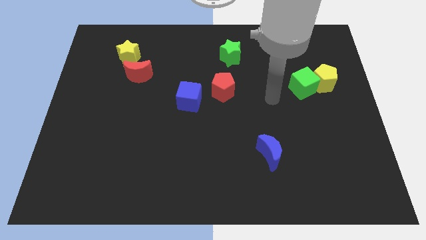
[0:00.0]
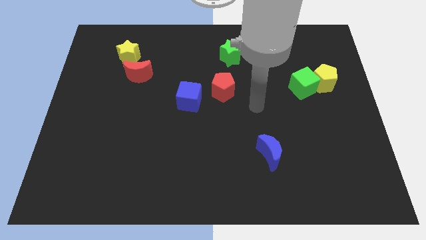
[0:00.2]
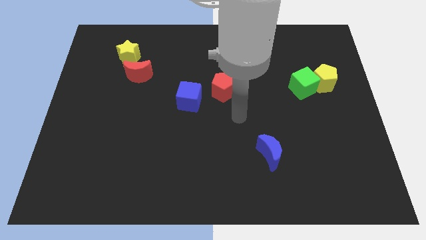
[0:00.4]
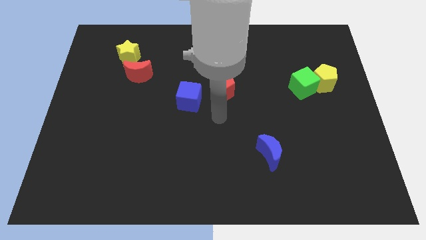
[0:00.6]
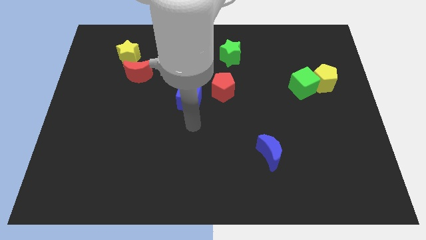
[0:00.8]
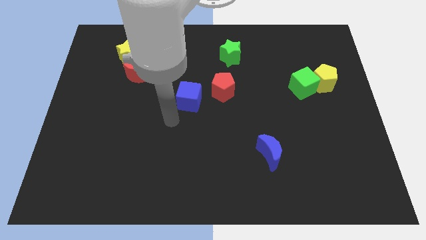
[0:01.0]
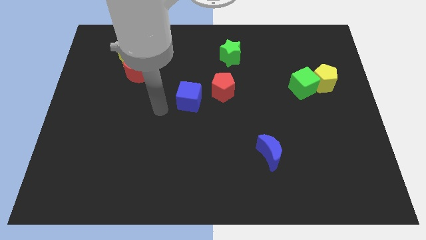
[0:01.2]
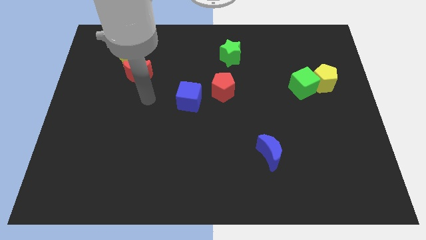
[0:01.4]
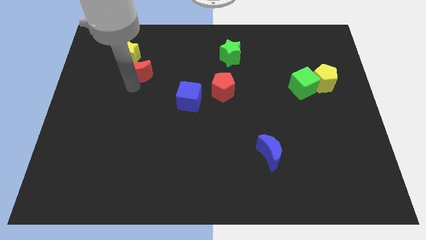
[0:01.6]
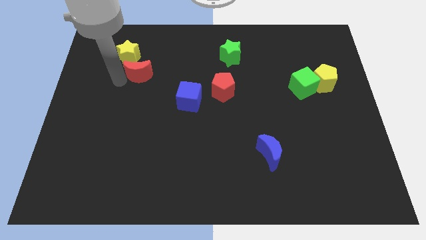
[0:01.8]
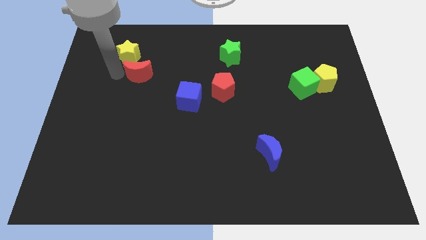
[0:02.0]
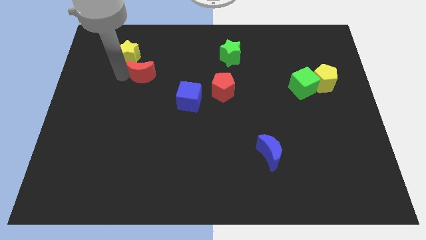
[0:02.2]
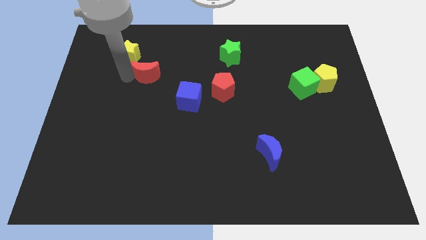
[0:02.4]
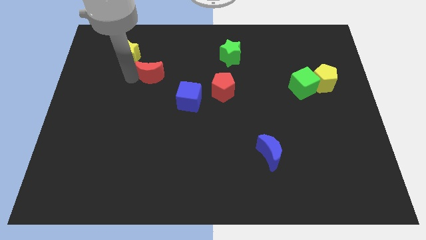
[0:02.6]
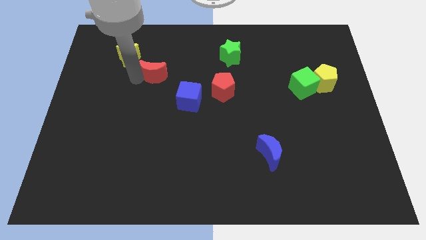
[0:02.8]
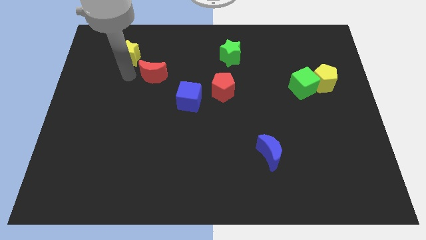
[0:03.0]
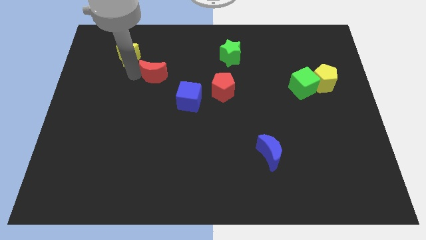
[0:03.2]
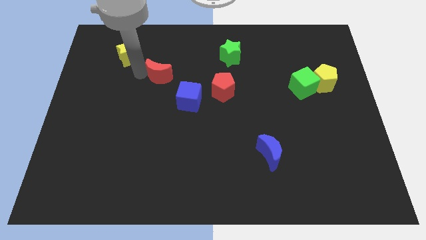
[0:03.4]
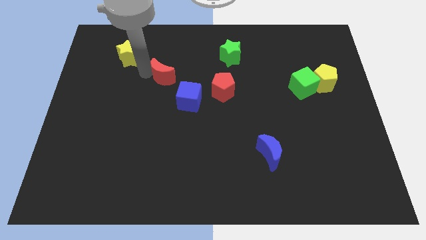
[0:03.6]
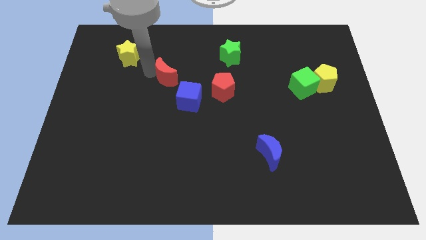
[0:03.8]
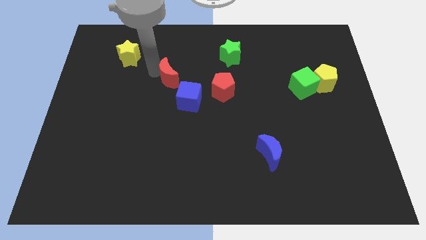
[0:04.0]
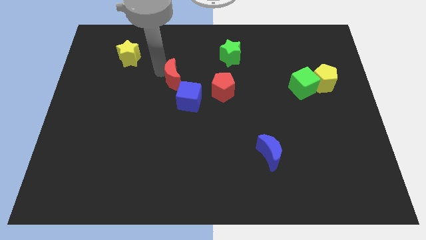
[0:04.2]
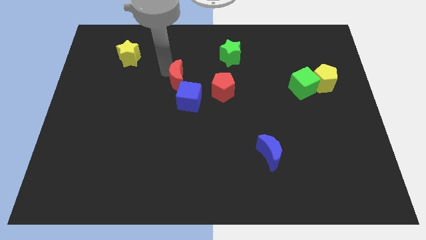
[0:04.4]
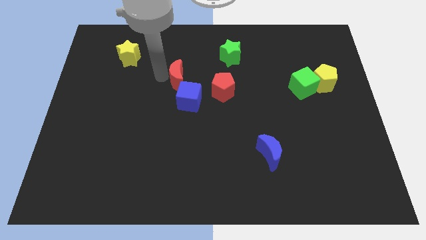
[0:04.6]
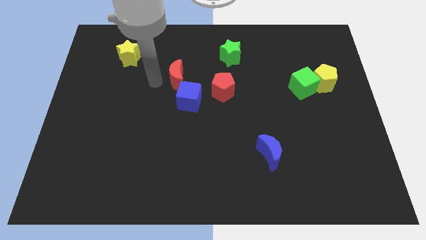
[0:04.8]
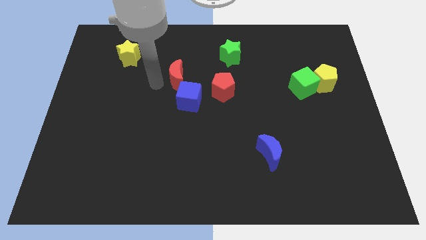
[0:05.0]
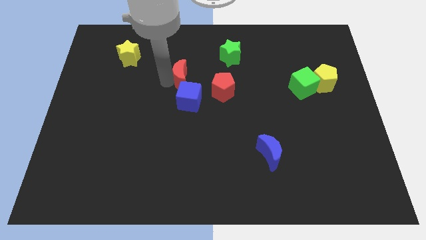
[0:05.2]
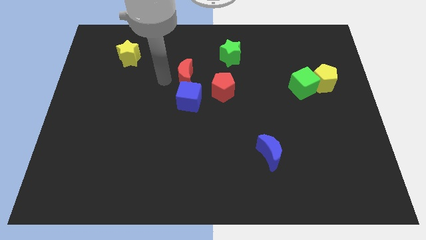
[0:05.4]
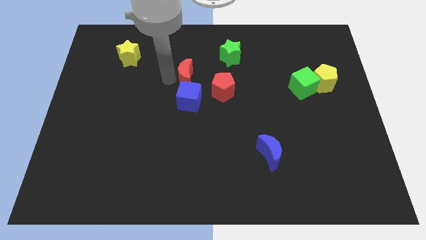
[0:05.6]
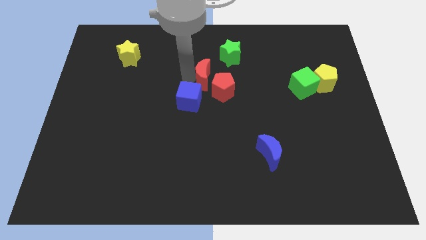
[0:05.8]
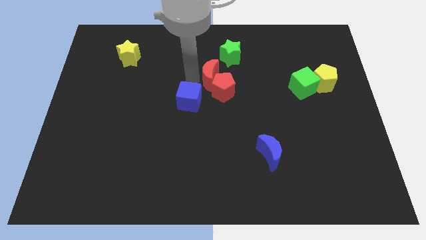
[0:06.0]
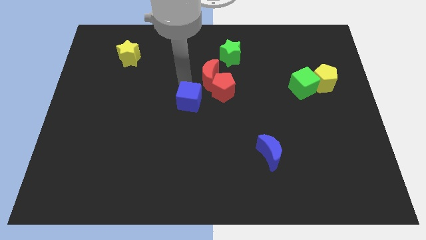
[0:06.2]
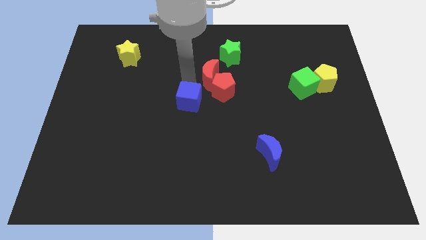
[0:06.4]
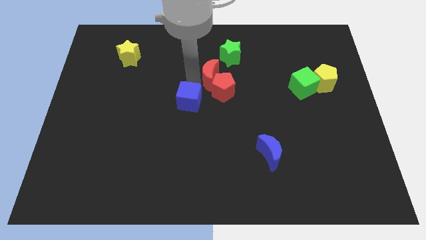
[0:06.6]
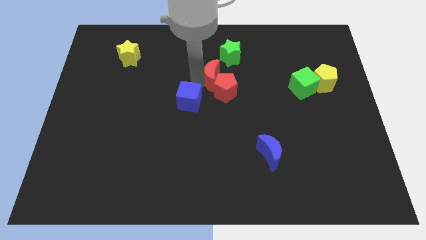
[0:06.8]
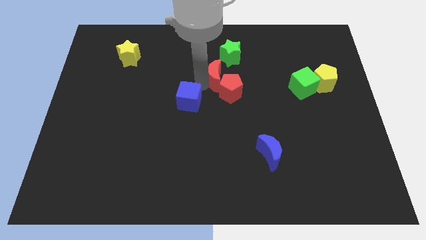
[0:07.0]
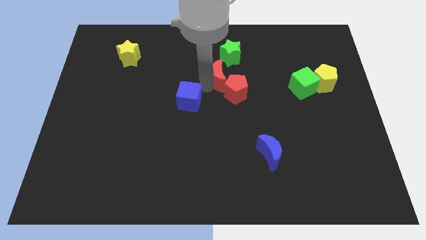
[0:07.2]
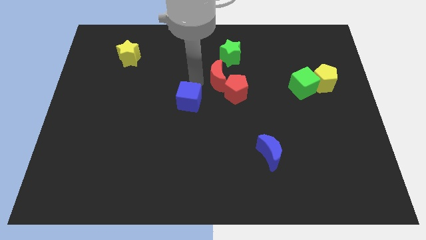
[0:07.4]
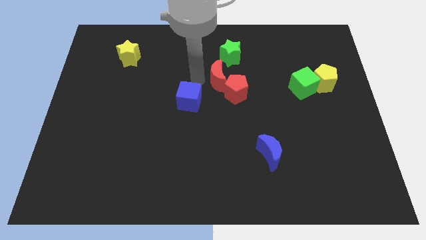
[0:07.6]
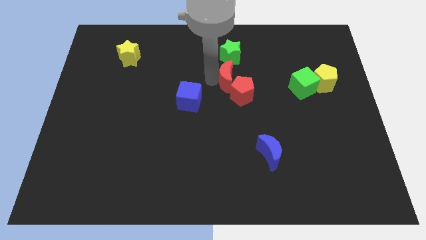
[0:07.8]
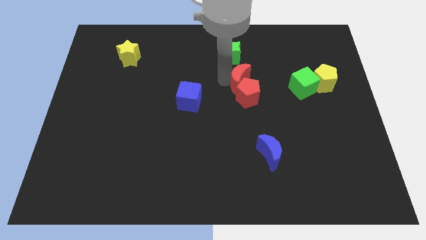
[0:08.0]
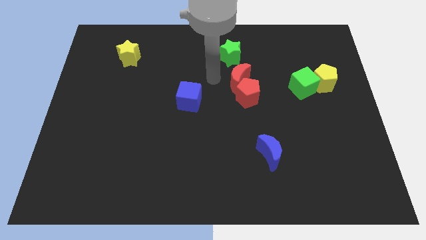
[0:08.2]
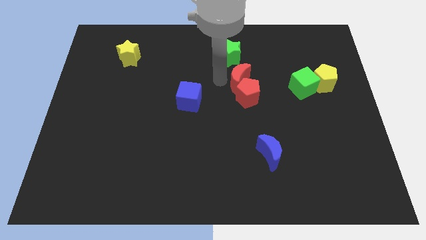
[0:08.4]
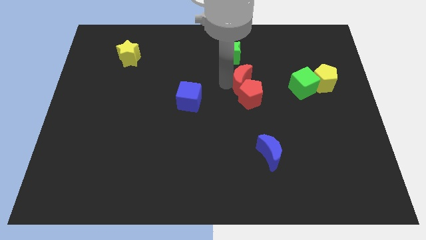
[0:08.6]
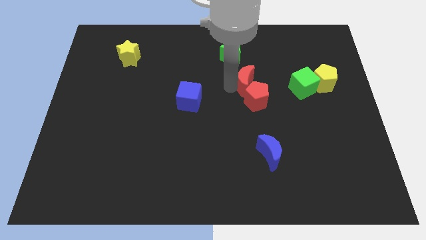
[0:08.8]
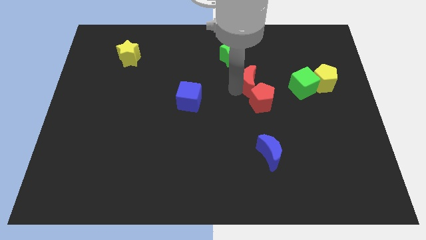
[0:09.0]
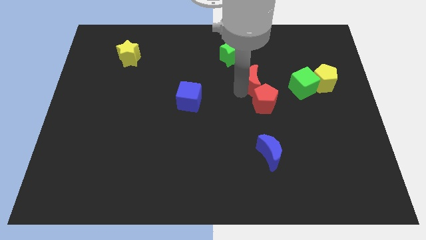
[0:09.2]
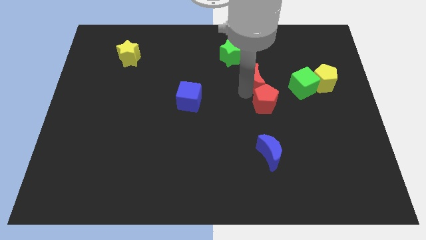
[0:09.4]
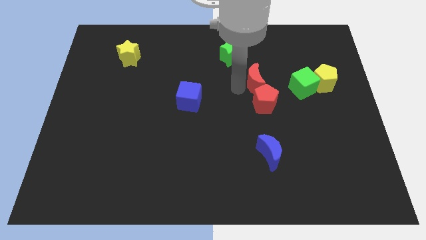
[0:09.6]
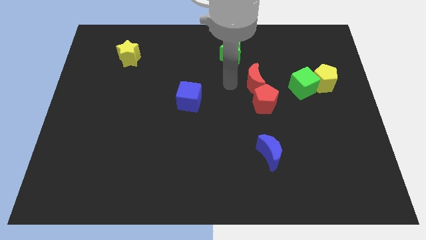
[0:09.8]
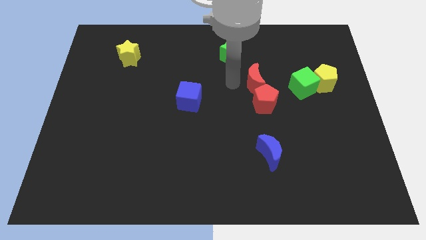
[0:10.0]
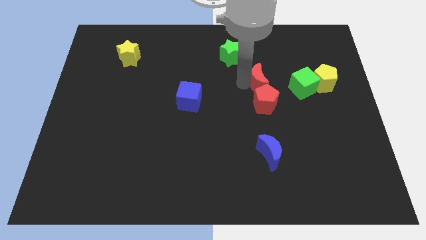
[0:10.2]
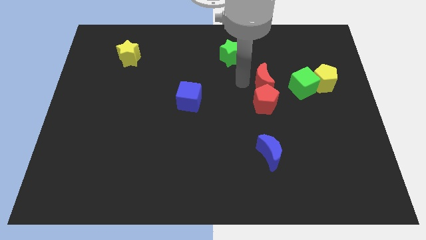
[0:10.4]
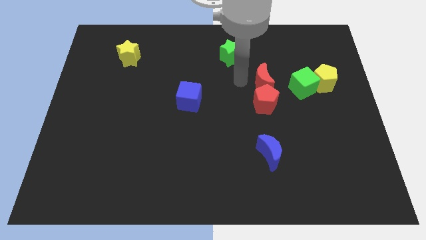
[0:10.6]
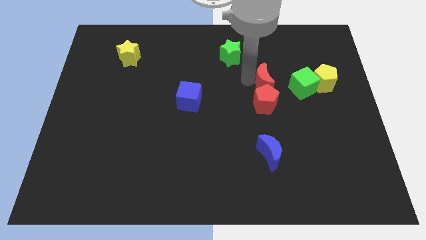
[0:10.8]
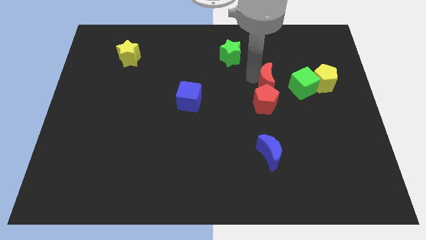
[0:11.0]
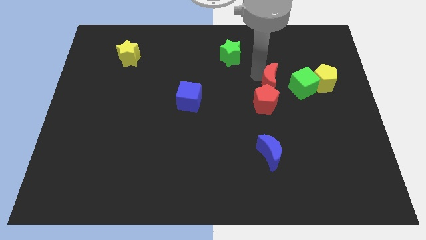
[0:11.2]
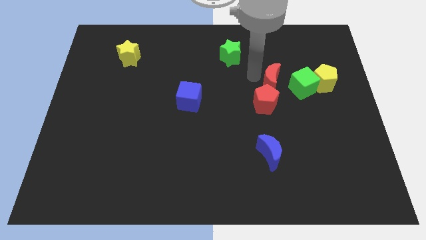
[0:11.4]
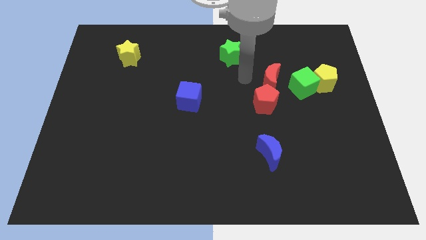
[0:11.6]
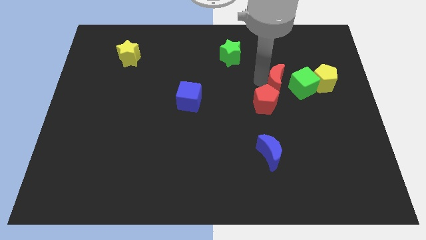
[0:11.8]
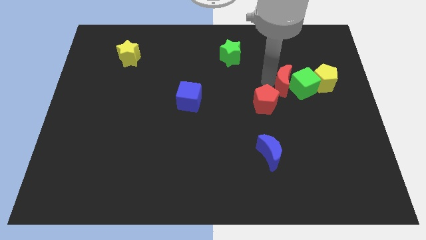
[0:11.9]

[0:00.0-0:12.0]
move the red moon close to the green cube
